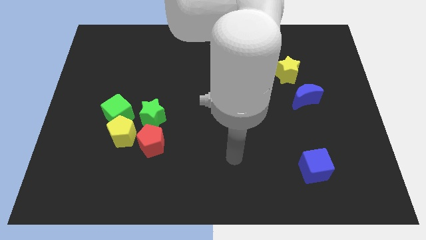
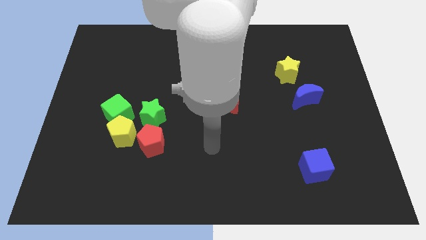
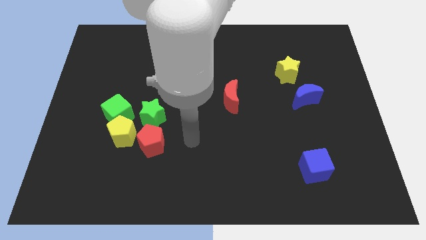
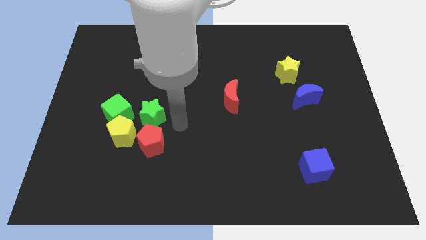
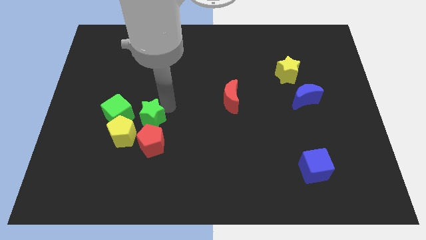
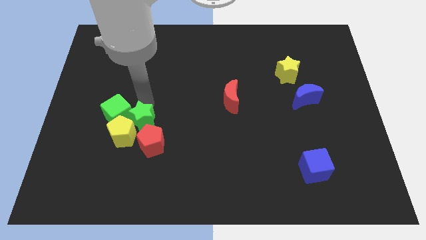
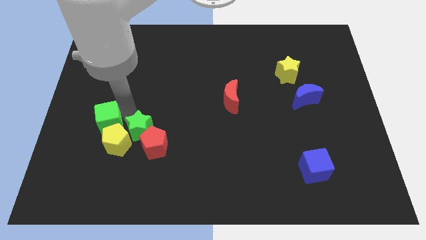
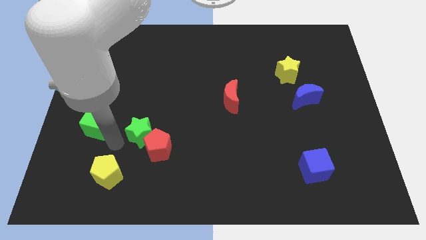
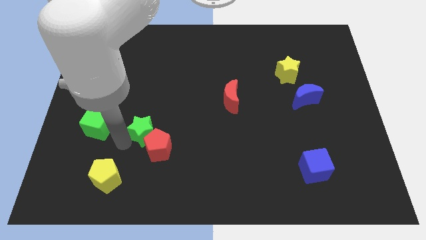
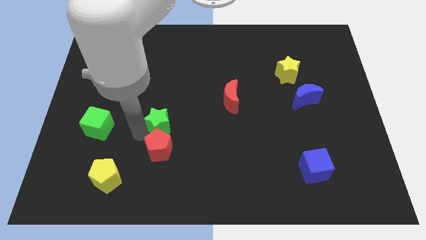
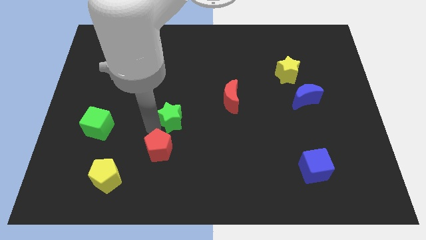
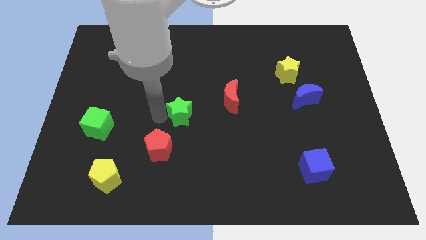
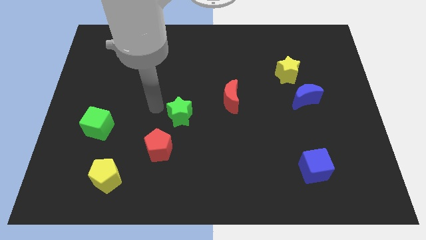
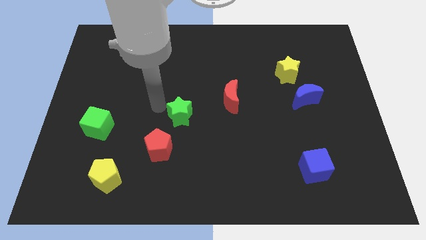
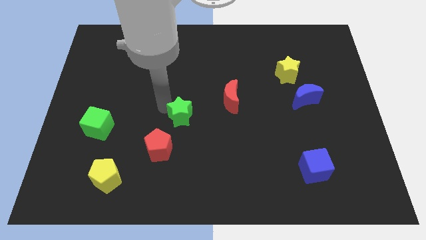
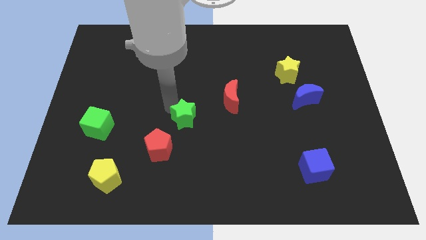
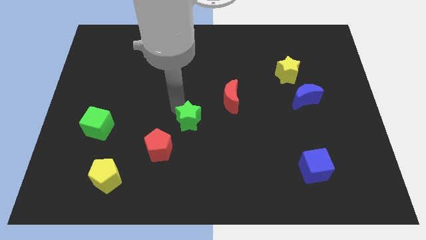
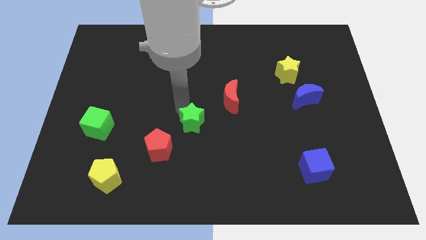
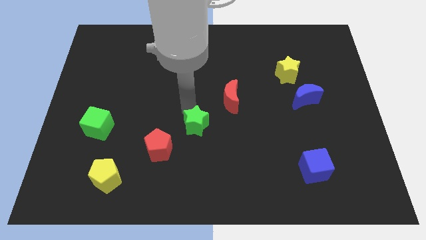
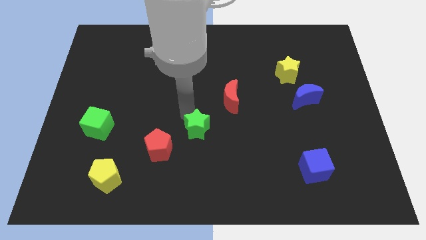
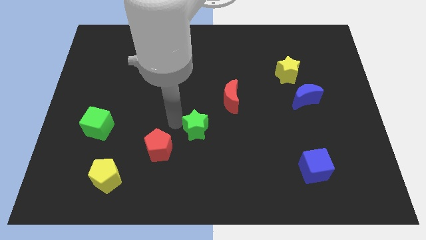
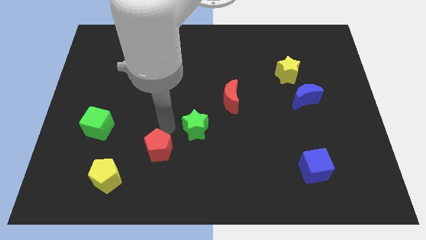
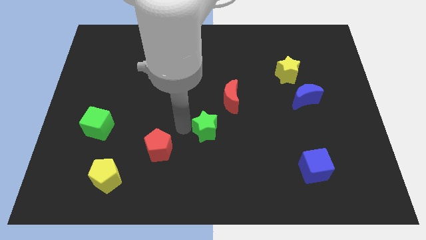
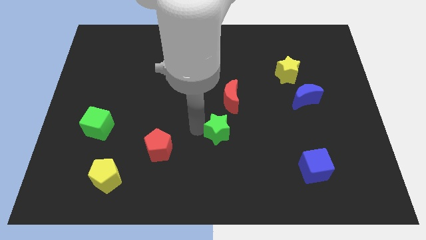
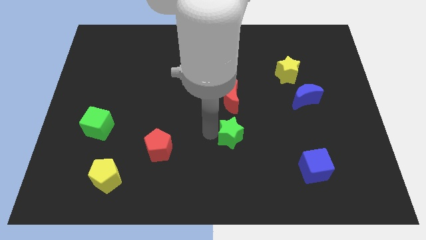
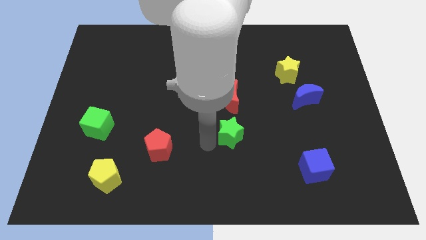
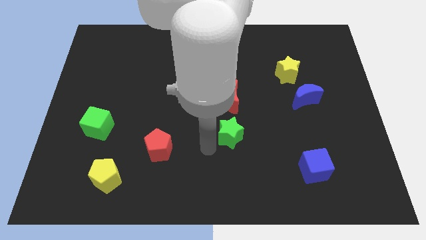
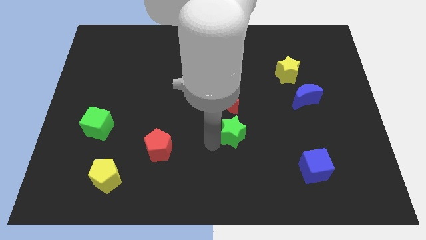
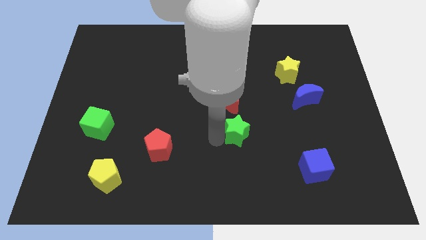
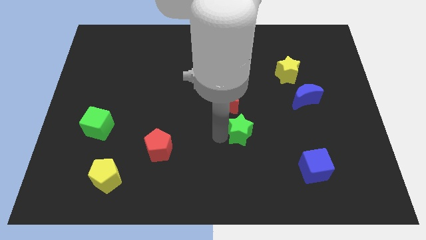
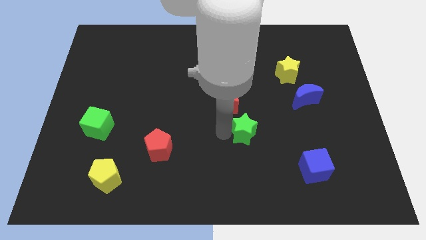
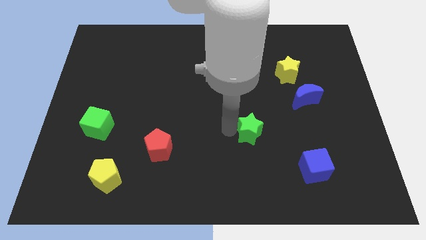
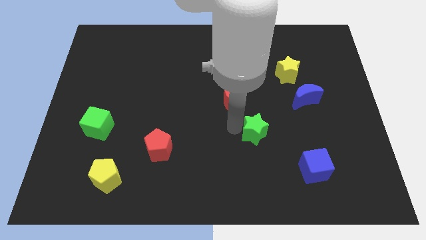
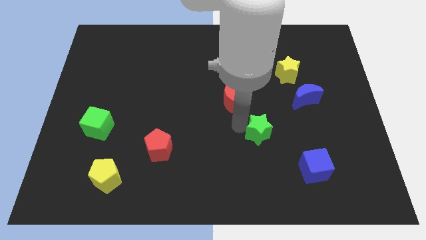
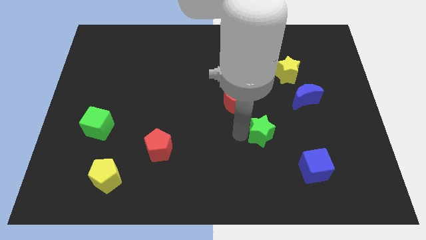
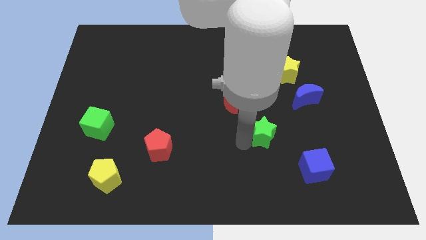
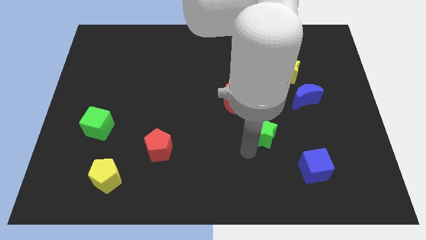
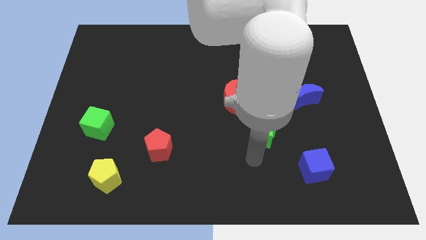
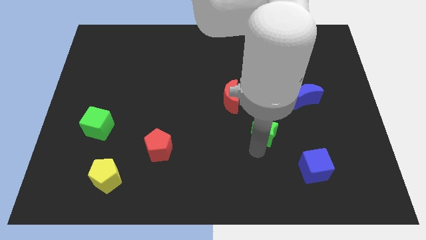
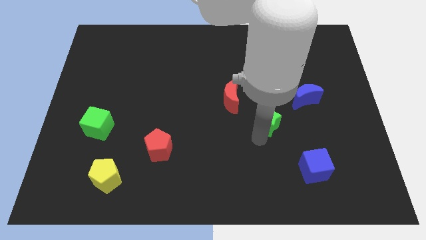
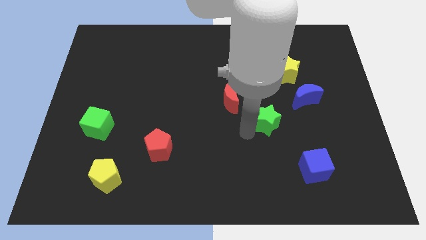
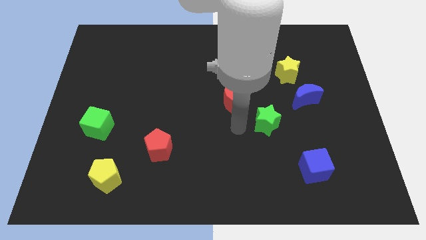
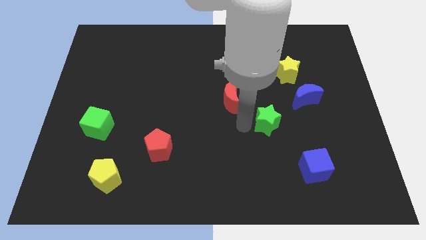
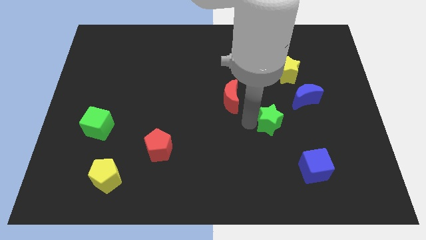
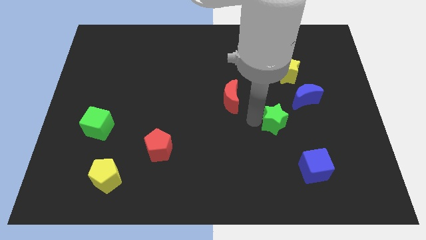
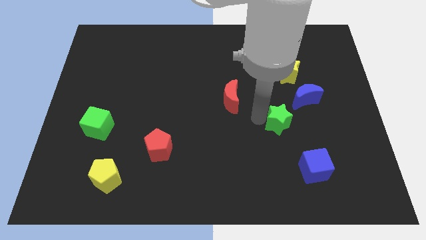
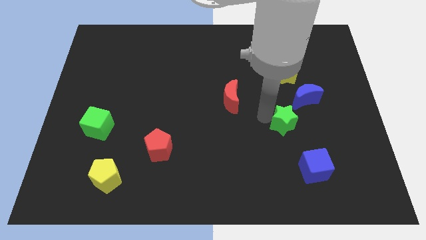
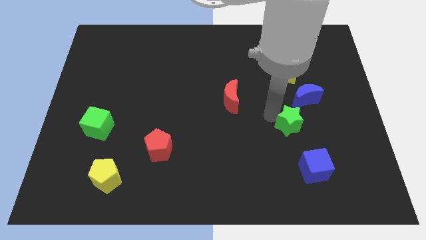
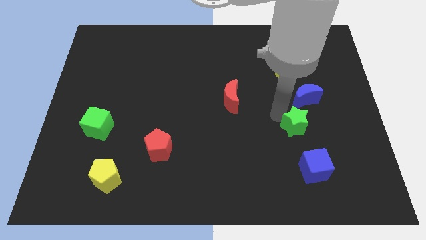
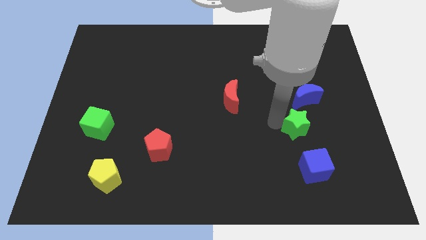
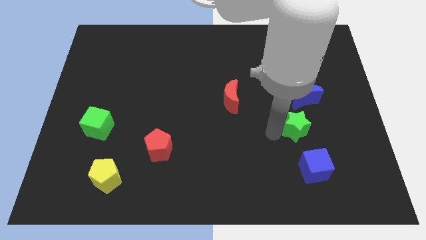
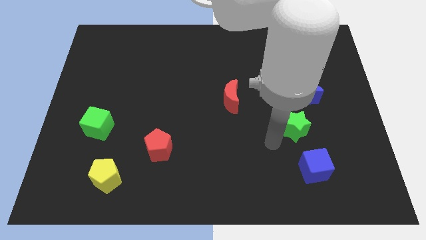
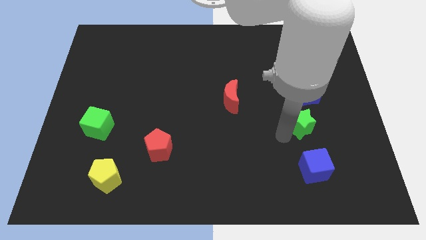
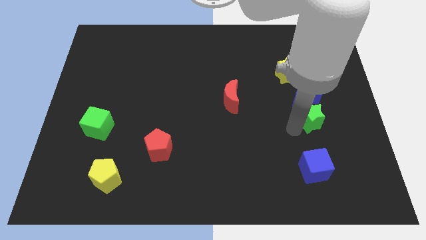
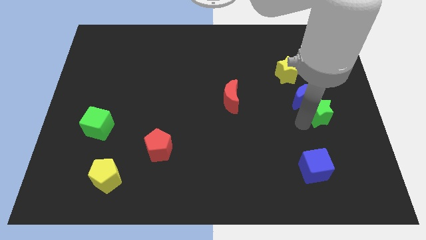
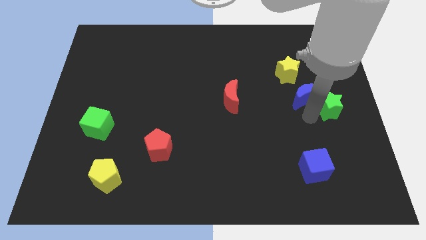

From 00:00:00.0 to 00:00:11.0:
push the green star to the right side of the board

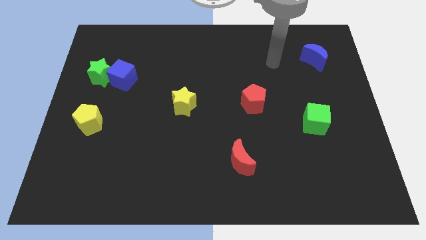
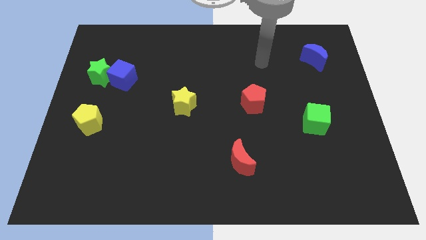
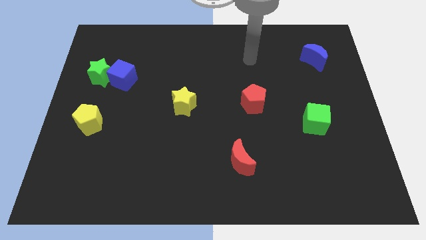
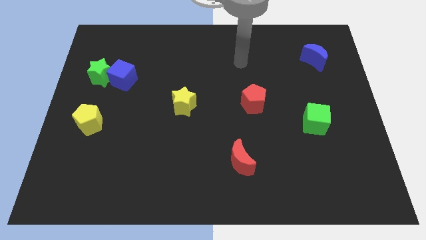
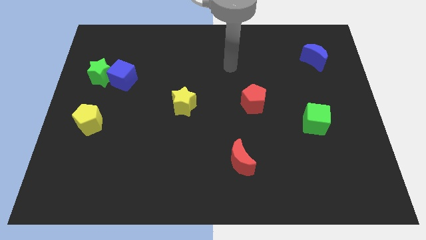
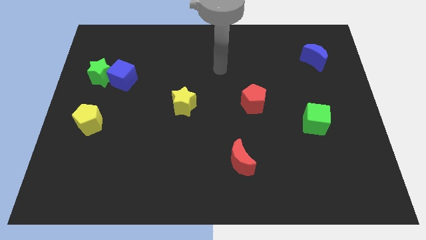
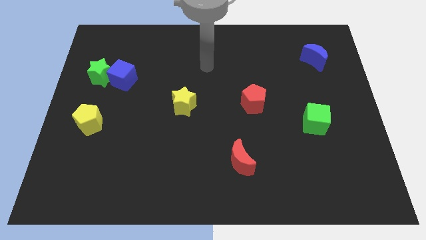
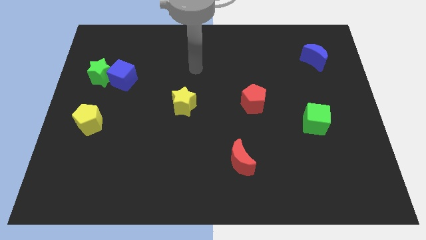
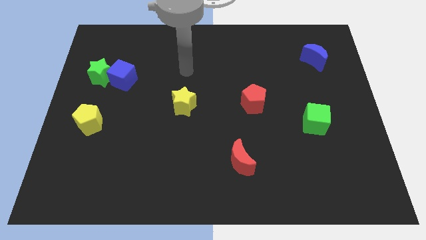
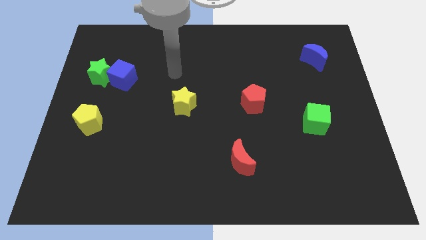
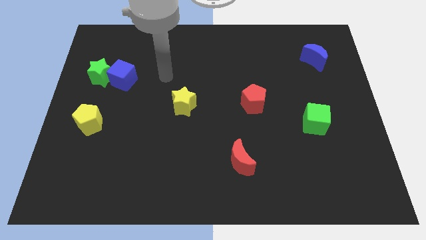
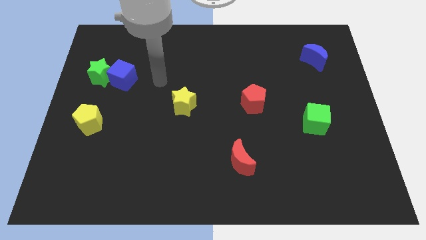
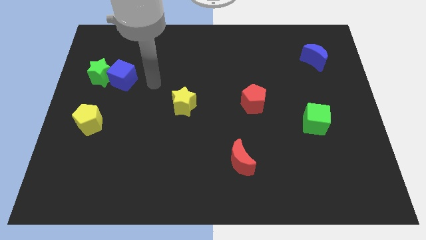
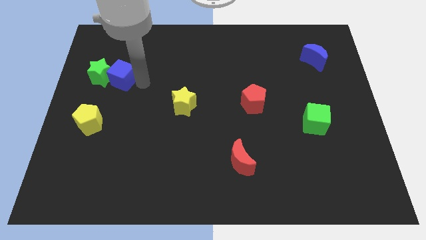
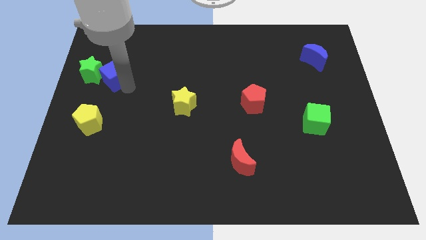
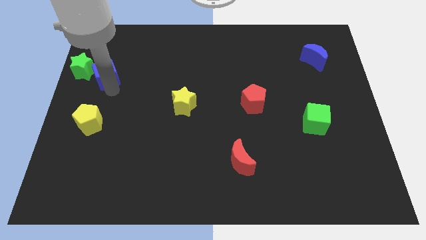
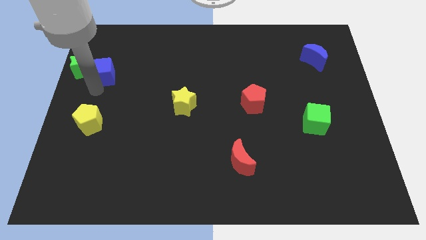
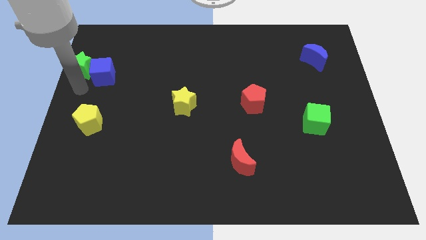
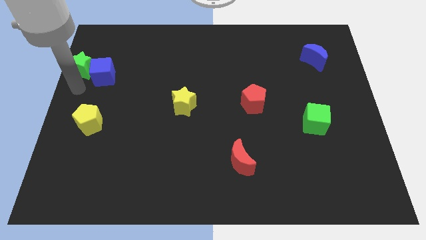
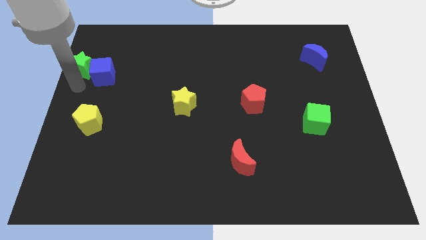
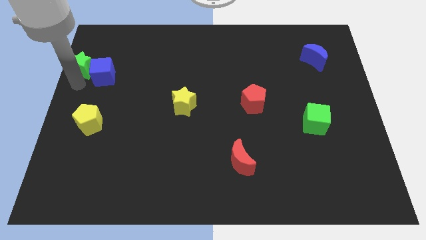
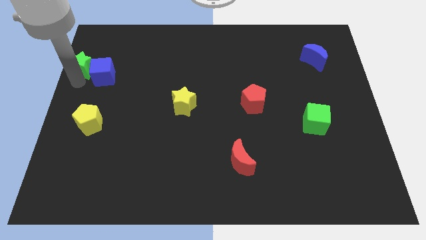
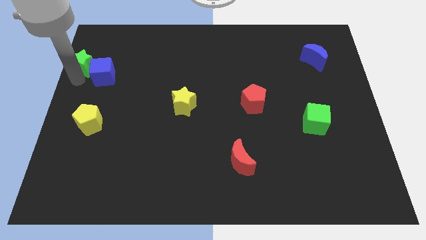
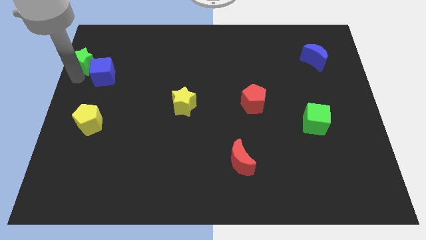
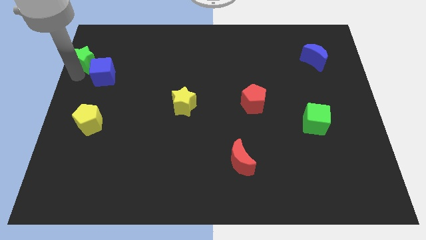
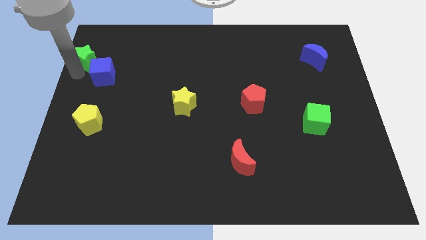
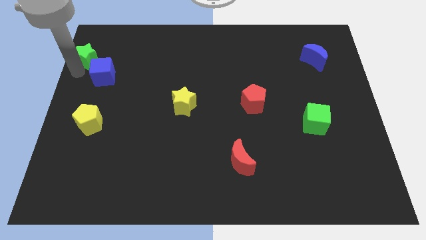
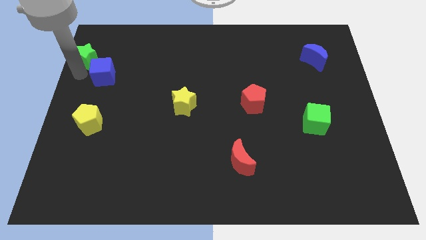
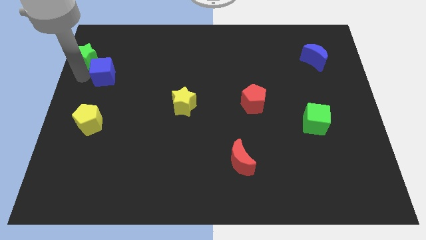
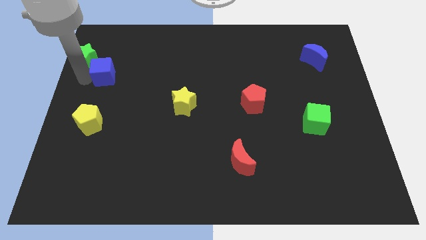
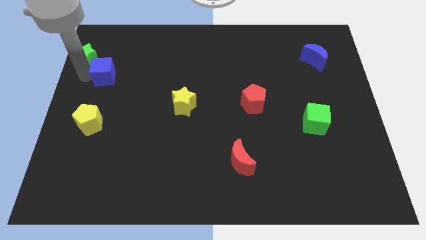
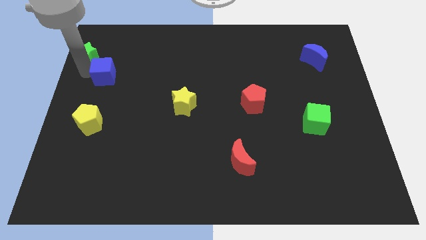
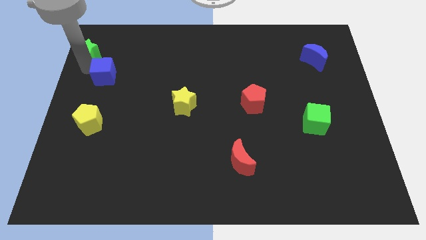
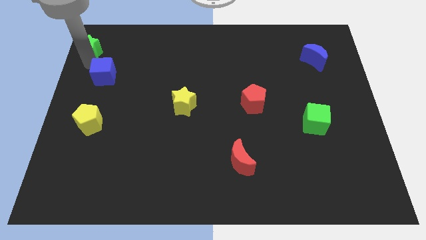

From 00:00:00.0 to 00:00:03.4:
put the green star to the top left
